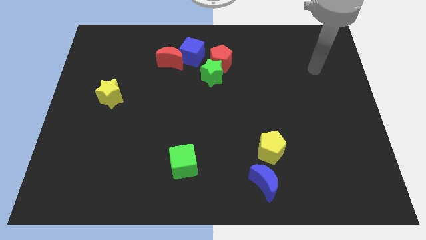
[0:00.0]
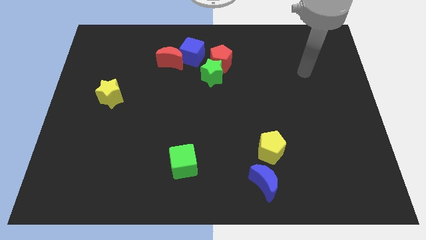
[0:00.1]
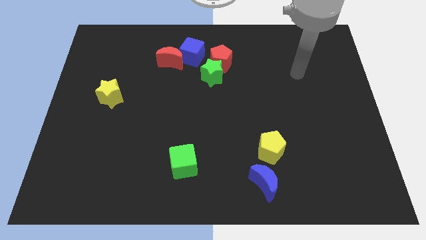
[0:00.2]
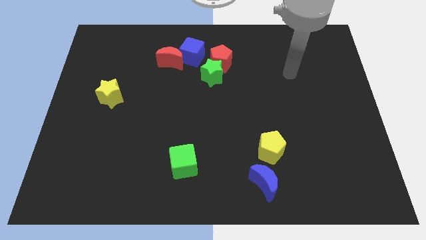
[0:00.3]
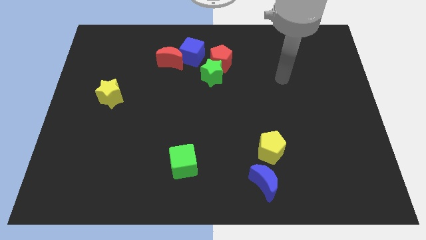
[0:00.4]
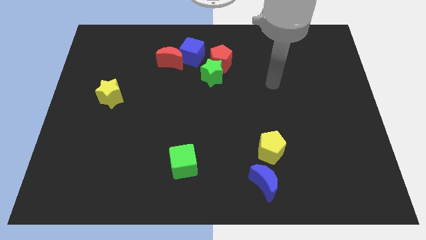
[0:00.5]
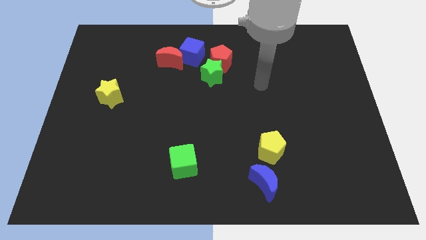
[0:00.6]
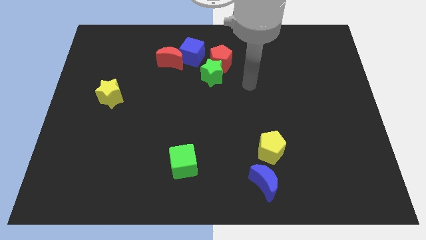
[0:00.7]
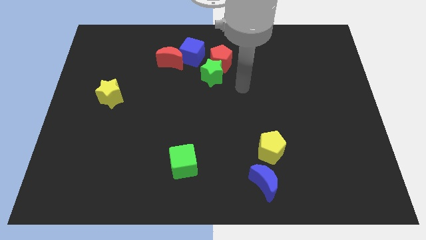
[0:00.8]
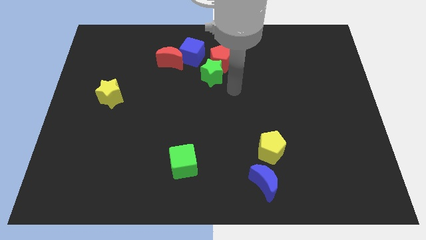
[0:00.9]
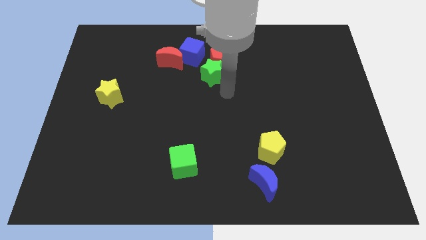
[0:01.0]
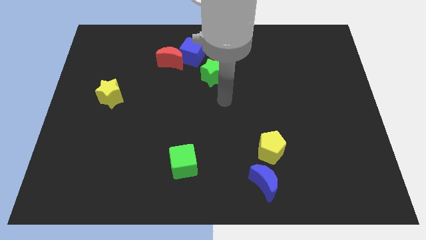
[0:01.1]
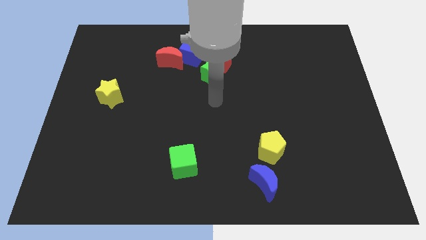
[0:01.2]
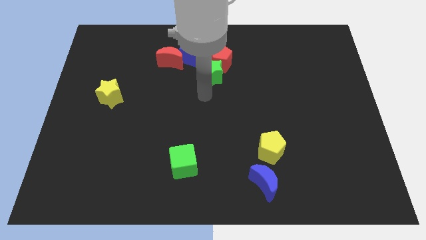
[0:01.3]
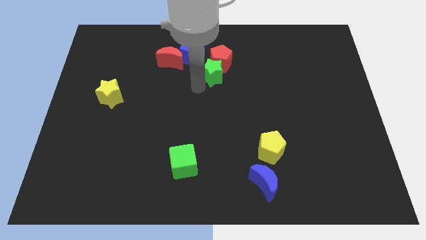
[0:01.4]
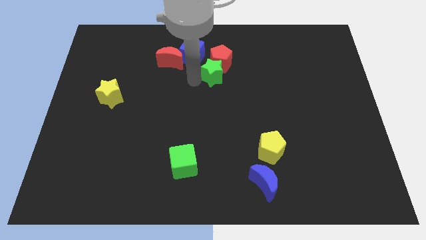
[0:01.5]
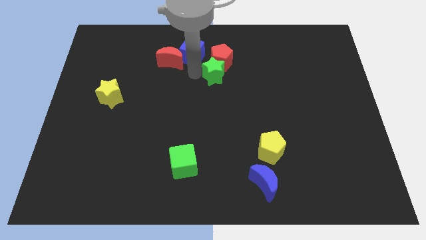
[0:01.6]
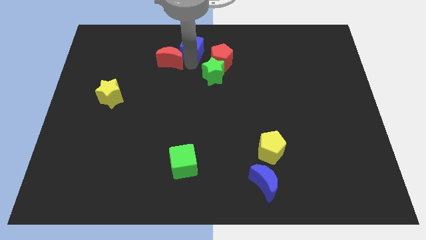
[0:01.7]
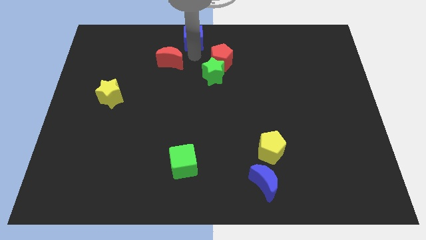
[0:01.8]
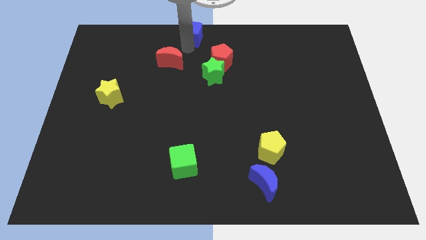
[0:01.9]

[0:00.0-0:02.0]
move the red moon away from the blue cube

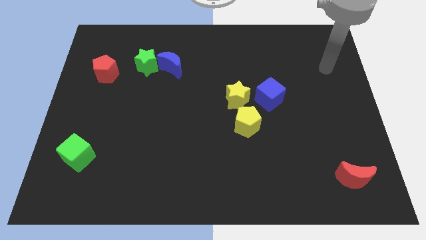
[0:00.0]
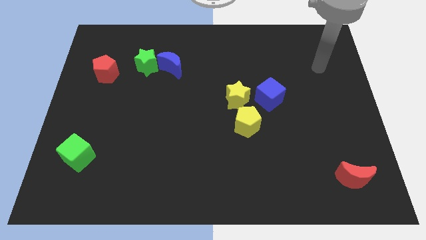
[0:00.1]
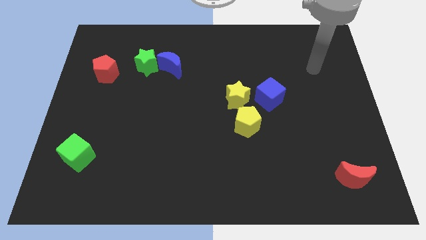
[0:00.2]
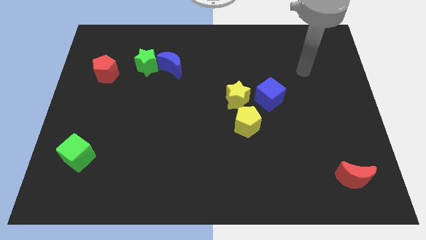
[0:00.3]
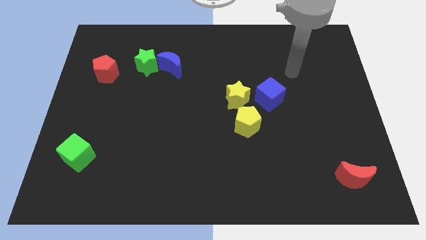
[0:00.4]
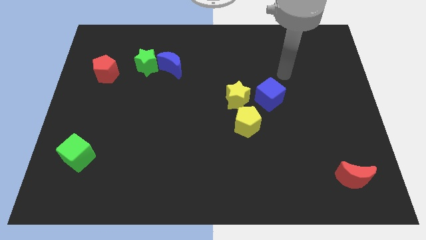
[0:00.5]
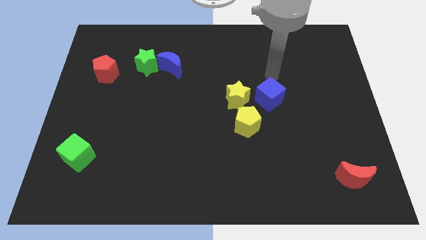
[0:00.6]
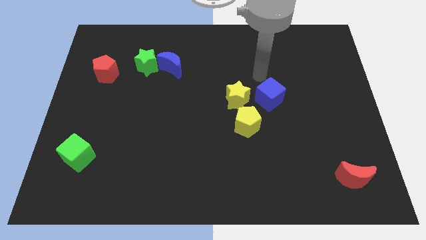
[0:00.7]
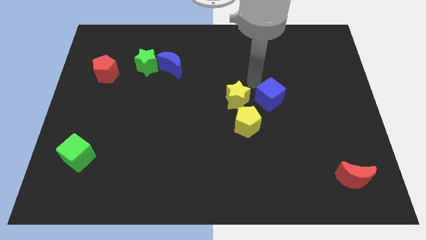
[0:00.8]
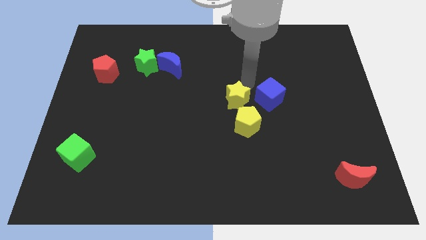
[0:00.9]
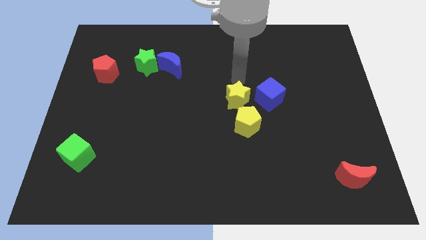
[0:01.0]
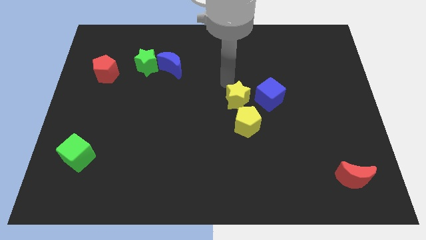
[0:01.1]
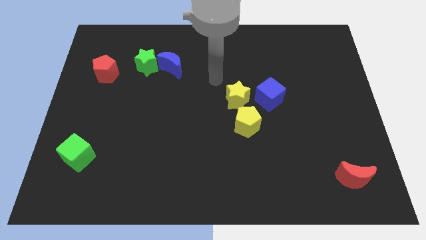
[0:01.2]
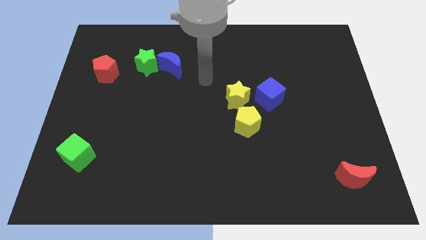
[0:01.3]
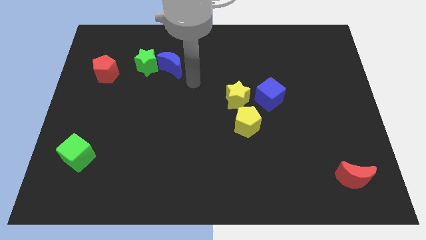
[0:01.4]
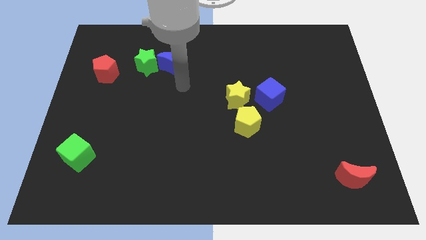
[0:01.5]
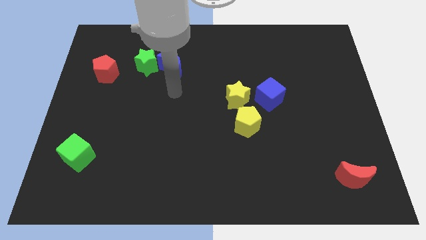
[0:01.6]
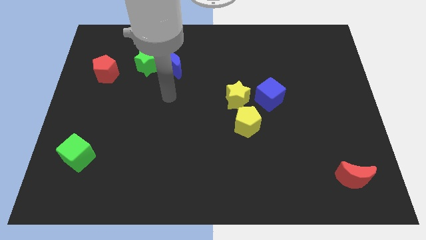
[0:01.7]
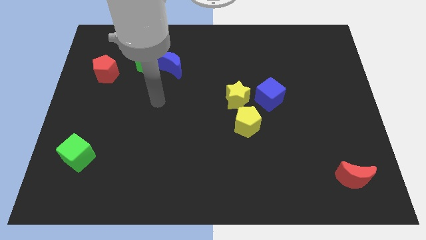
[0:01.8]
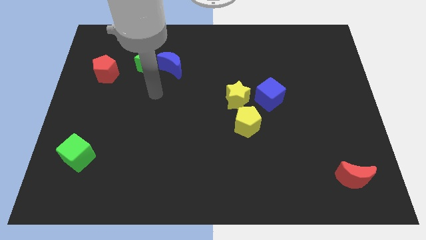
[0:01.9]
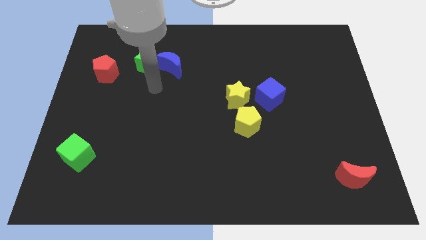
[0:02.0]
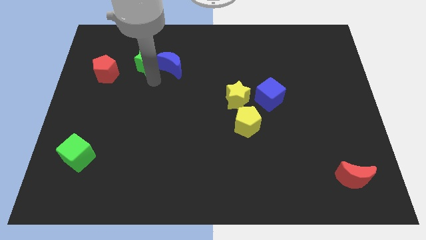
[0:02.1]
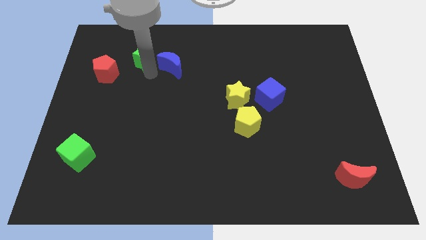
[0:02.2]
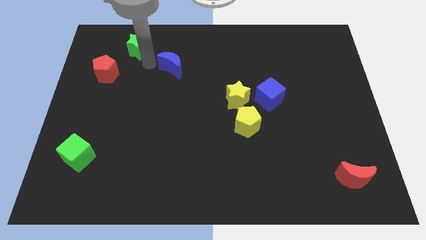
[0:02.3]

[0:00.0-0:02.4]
pull the blue moon apart from the green star

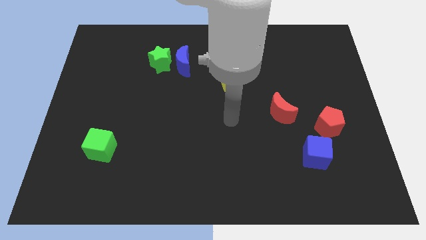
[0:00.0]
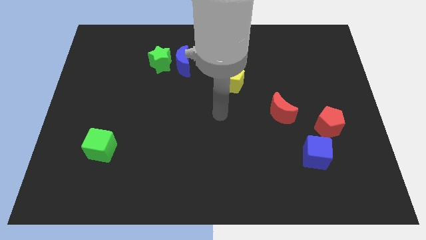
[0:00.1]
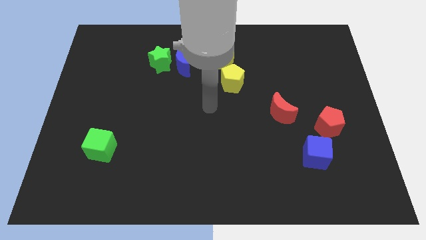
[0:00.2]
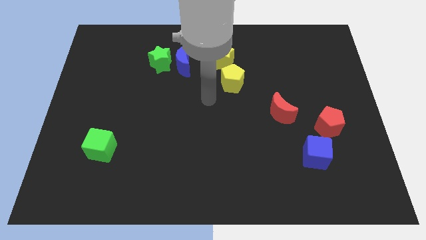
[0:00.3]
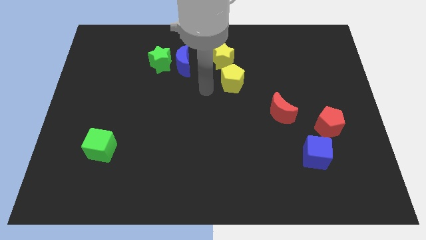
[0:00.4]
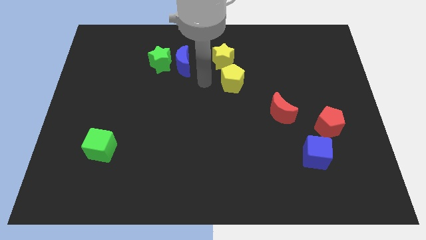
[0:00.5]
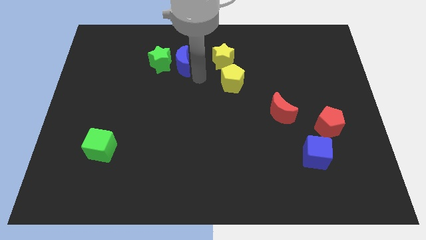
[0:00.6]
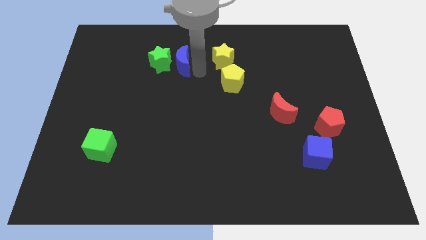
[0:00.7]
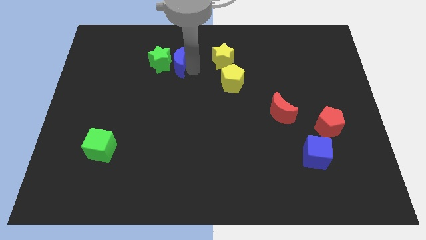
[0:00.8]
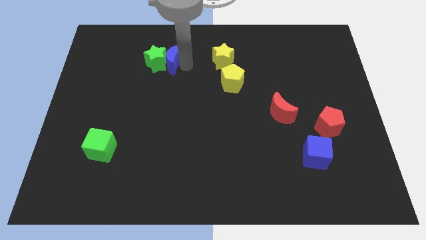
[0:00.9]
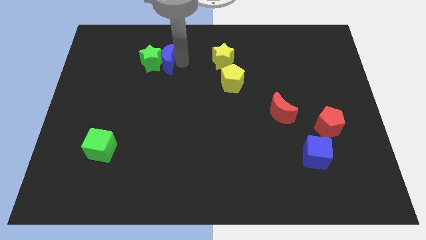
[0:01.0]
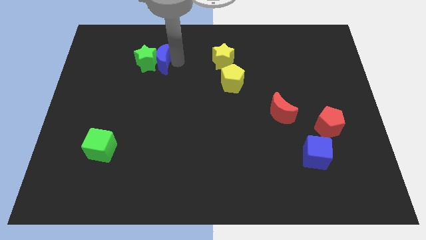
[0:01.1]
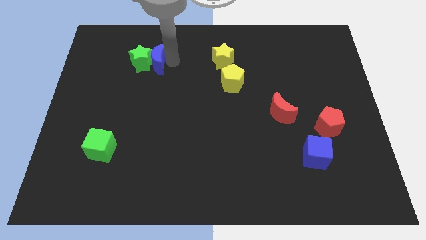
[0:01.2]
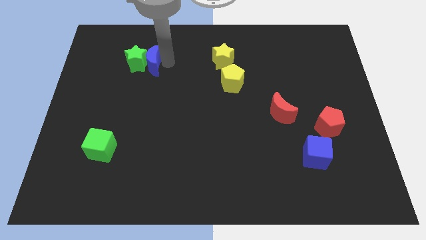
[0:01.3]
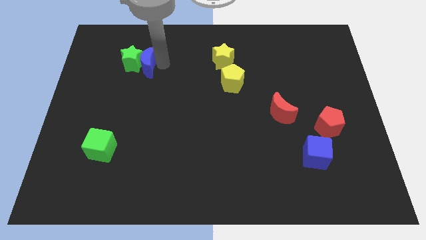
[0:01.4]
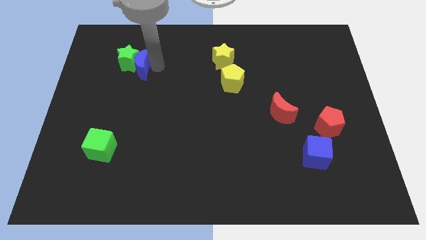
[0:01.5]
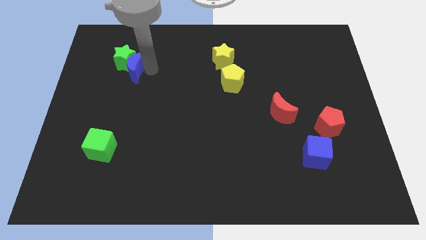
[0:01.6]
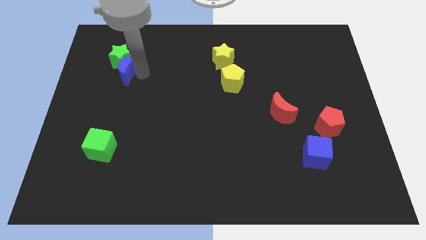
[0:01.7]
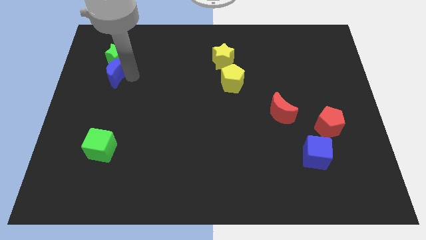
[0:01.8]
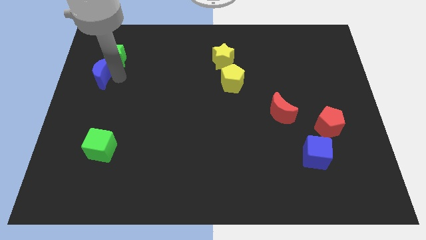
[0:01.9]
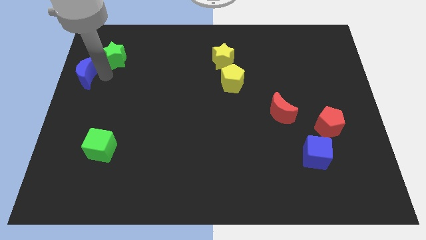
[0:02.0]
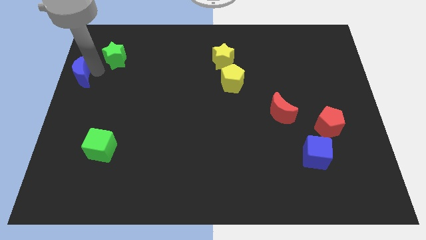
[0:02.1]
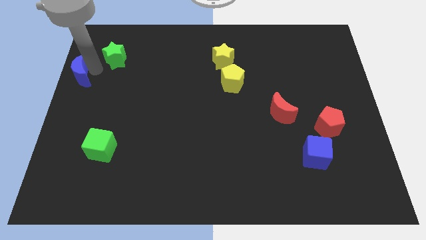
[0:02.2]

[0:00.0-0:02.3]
move the green star away from the blue moon

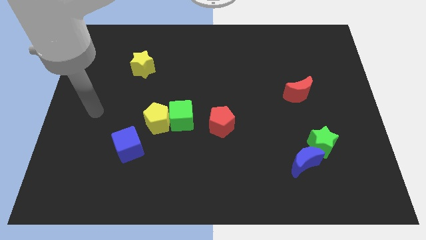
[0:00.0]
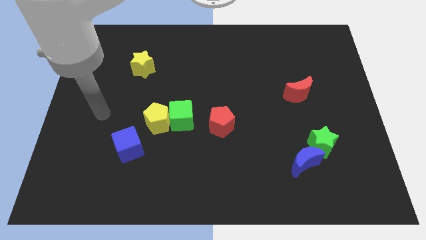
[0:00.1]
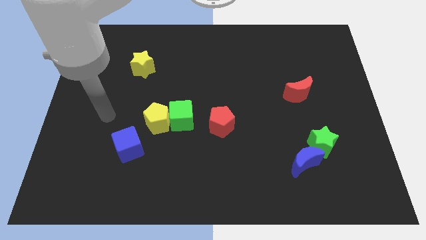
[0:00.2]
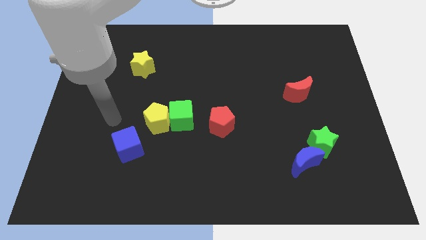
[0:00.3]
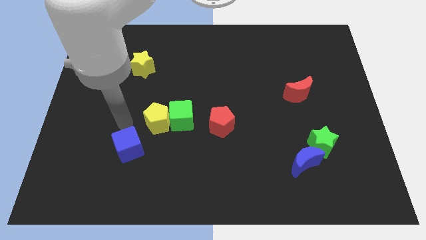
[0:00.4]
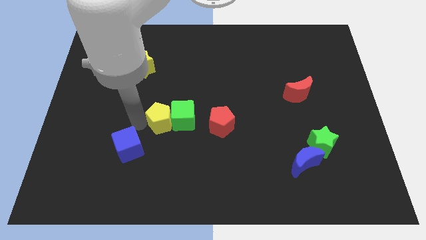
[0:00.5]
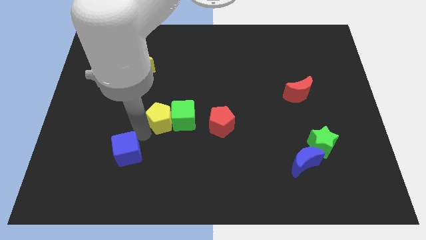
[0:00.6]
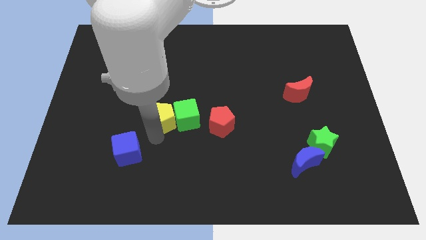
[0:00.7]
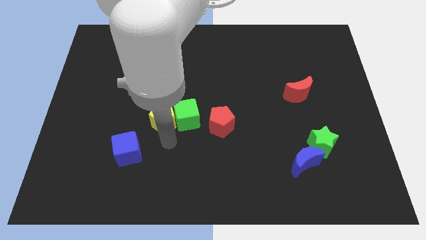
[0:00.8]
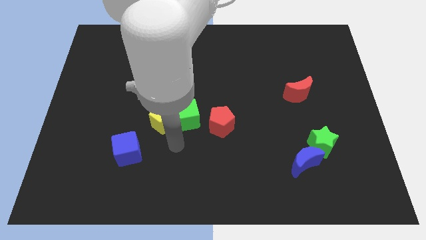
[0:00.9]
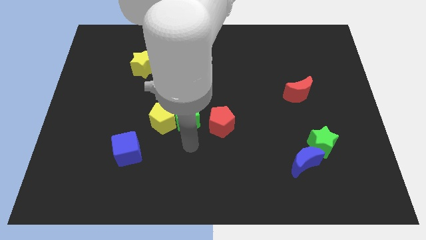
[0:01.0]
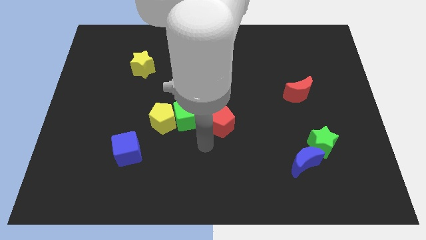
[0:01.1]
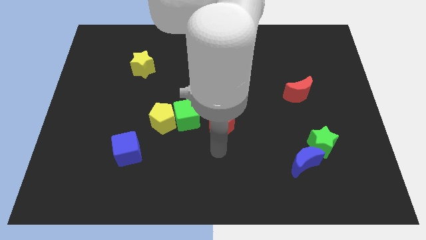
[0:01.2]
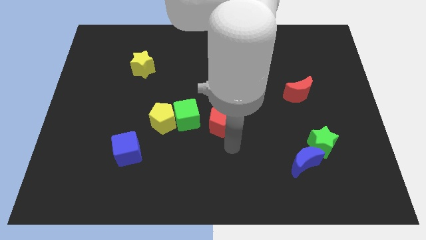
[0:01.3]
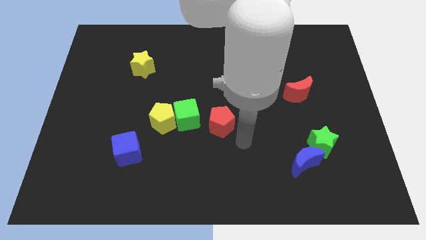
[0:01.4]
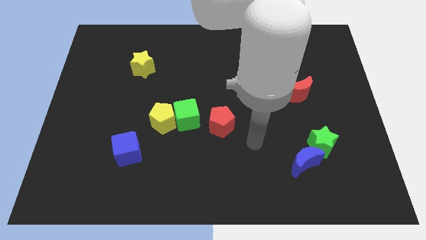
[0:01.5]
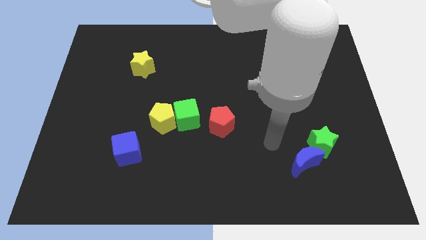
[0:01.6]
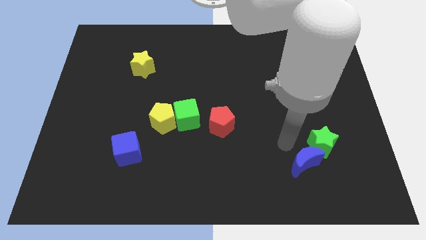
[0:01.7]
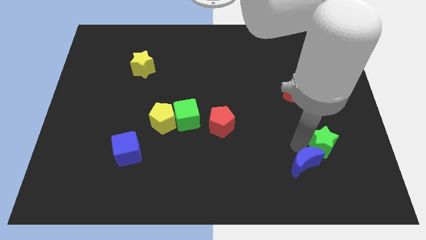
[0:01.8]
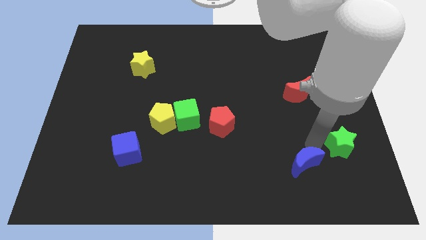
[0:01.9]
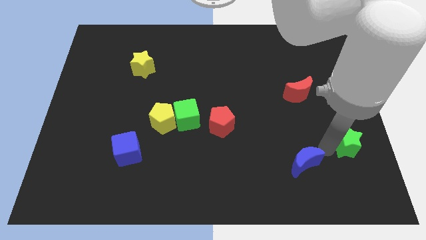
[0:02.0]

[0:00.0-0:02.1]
move the blue moon away from the green star

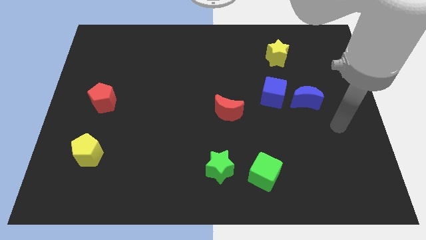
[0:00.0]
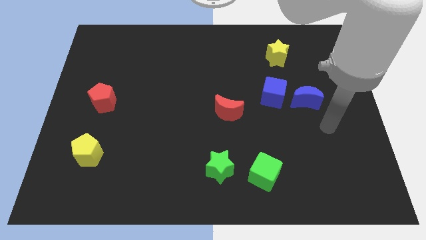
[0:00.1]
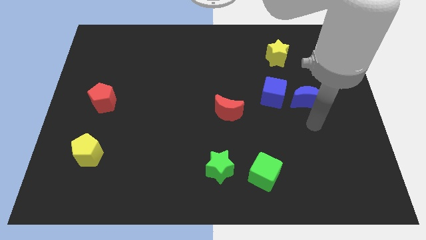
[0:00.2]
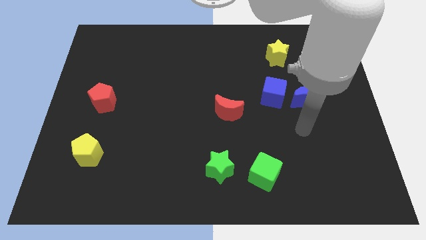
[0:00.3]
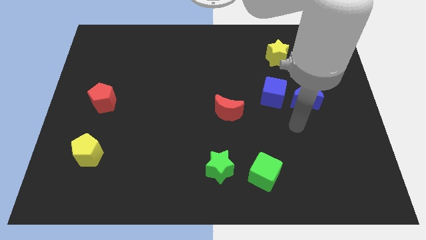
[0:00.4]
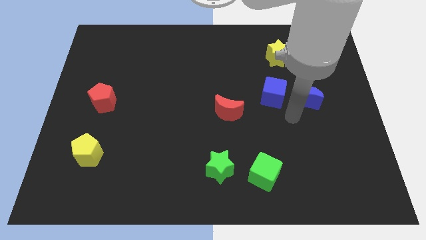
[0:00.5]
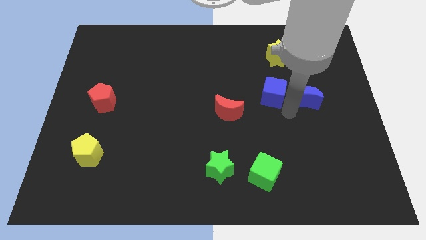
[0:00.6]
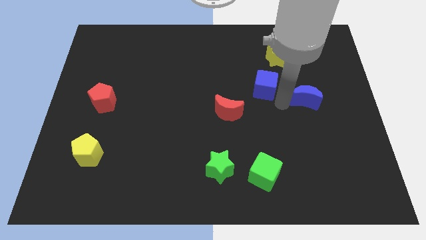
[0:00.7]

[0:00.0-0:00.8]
separate the blue moon from the blue cube
